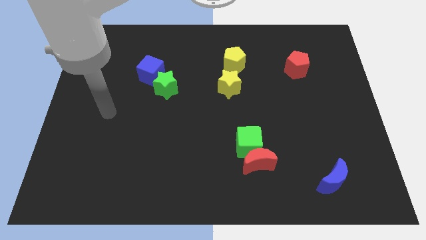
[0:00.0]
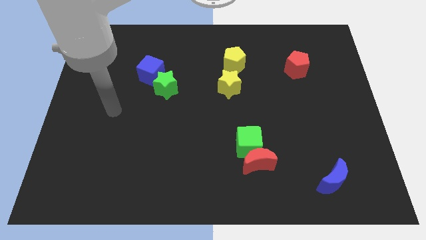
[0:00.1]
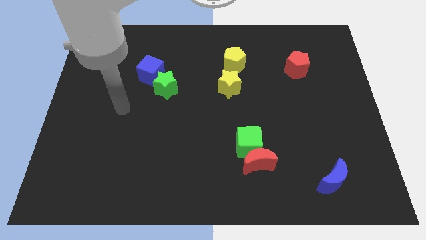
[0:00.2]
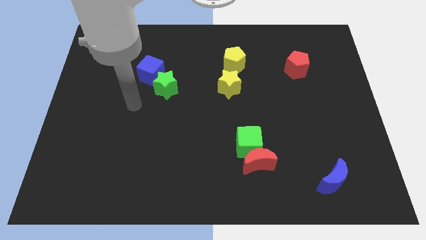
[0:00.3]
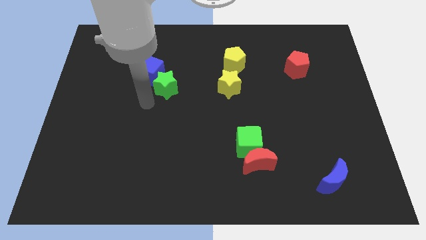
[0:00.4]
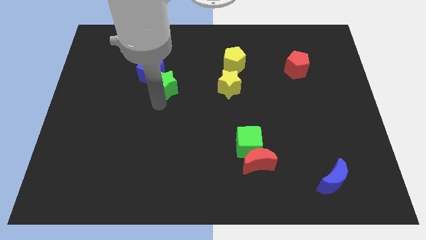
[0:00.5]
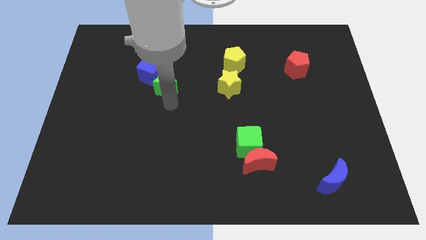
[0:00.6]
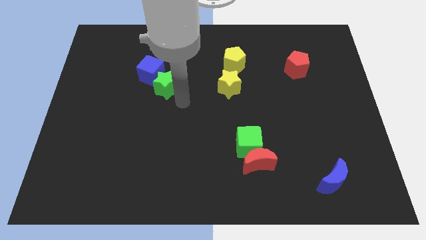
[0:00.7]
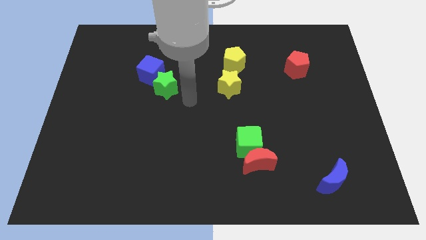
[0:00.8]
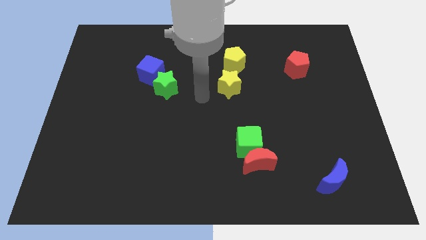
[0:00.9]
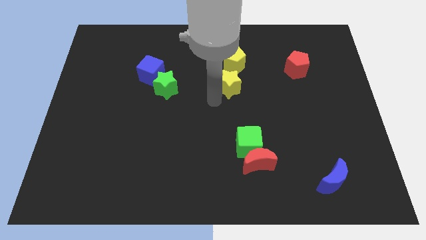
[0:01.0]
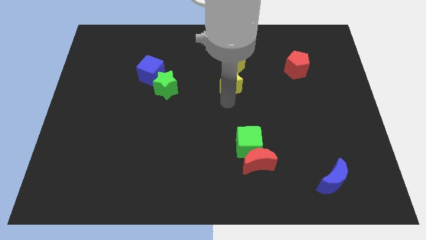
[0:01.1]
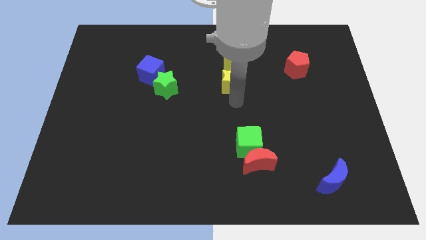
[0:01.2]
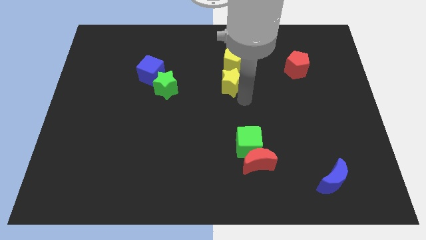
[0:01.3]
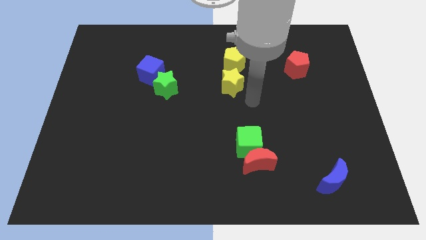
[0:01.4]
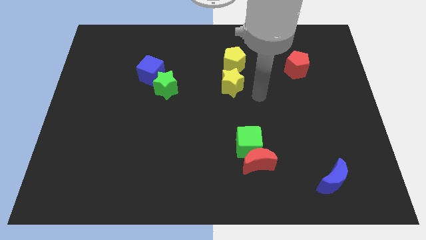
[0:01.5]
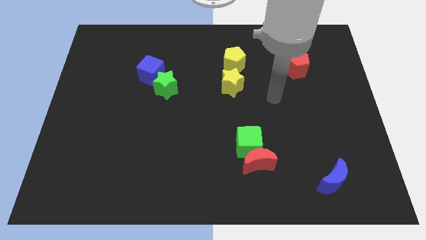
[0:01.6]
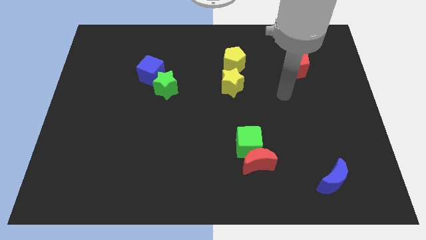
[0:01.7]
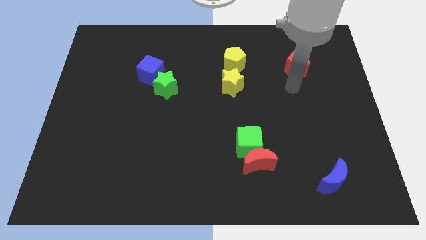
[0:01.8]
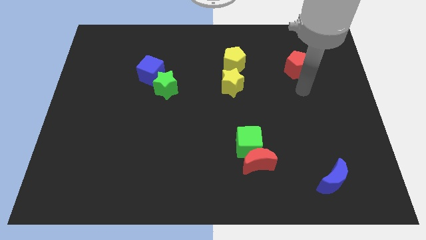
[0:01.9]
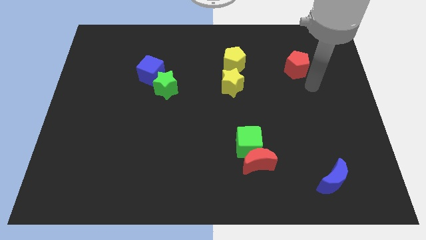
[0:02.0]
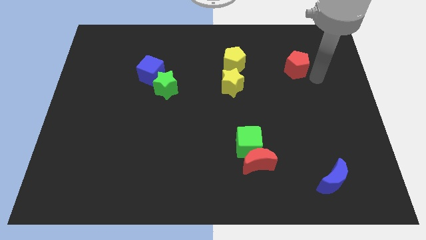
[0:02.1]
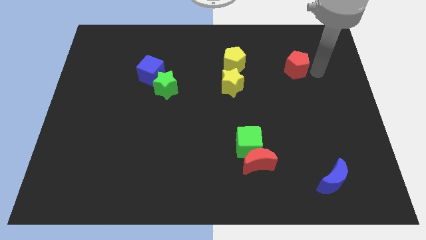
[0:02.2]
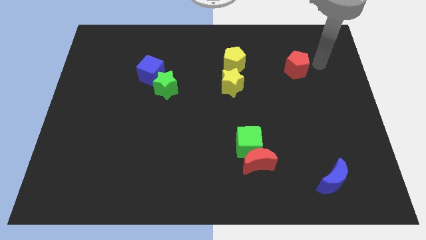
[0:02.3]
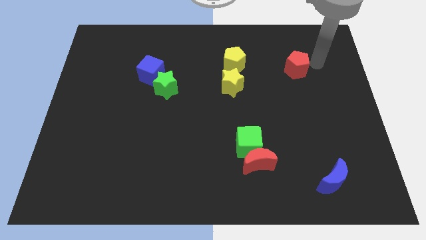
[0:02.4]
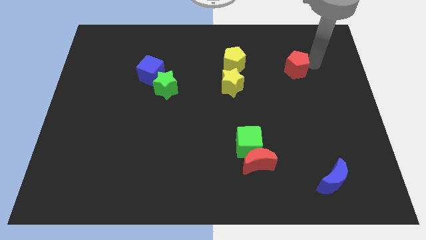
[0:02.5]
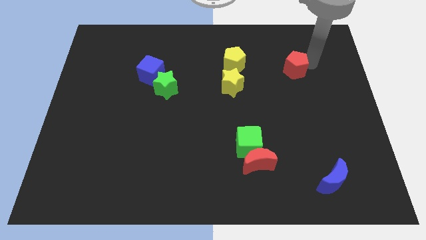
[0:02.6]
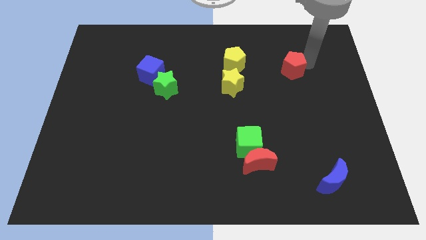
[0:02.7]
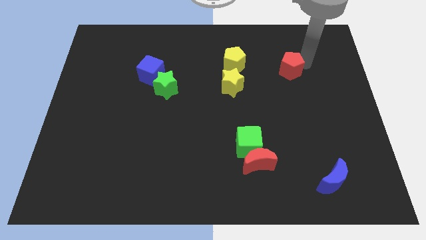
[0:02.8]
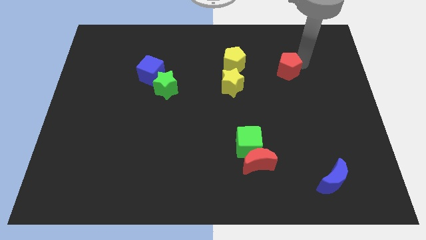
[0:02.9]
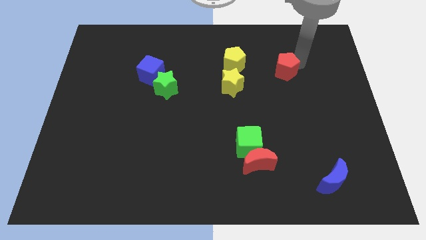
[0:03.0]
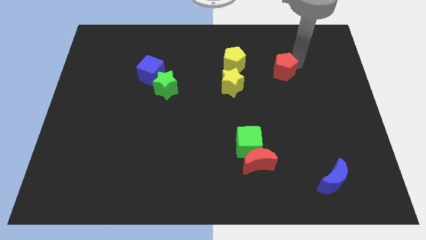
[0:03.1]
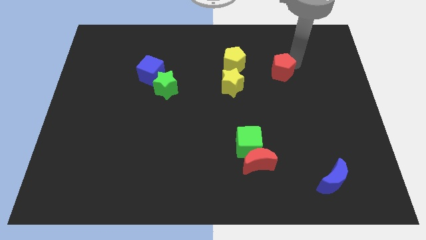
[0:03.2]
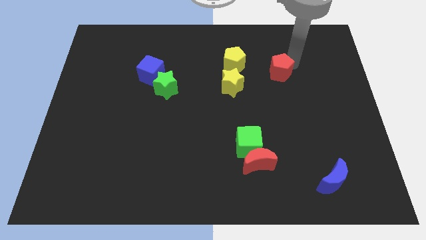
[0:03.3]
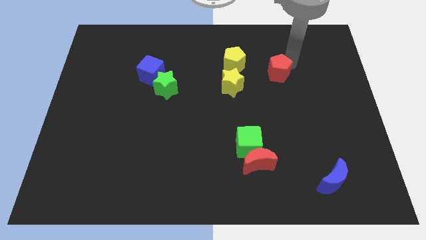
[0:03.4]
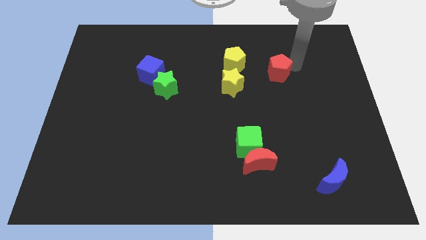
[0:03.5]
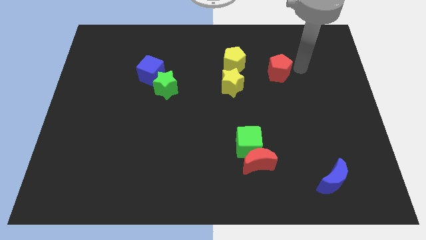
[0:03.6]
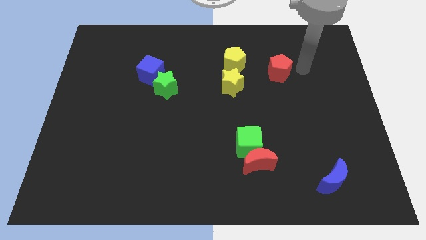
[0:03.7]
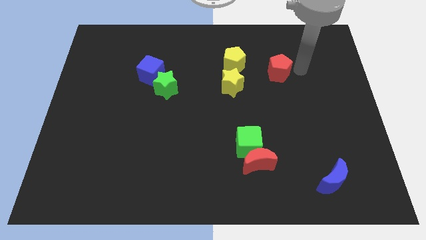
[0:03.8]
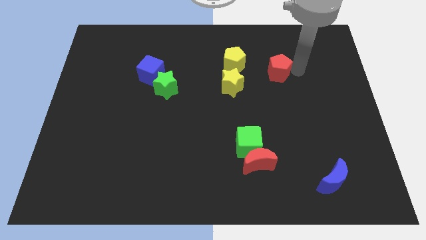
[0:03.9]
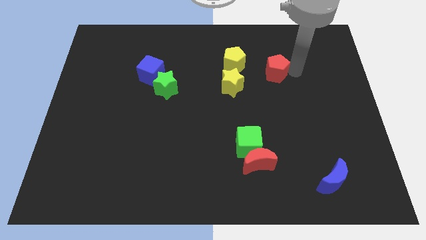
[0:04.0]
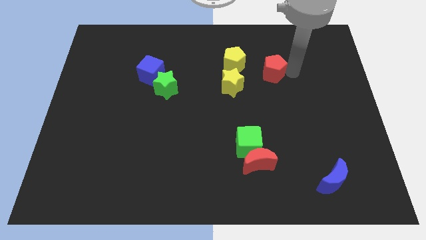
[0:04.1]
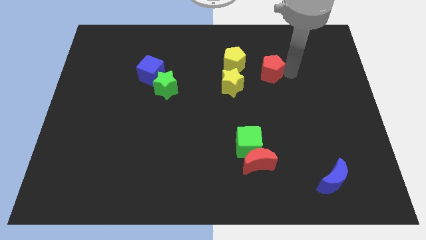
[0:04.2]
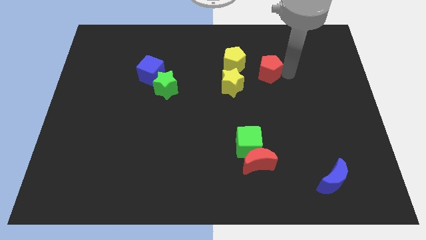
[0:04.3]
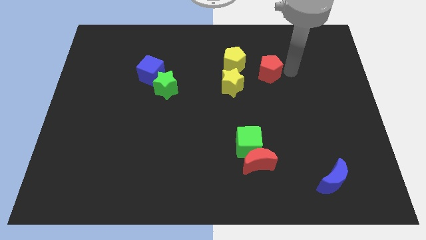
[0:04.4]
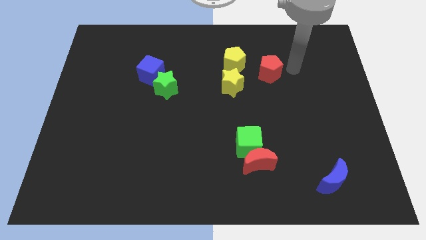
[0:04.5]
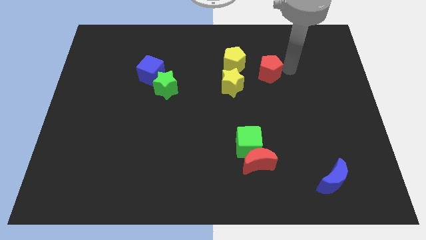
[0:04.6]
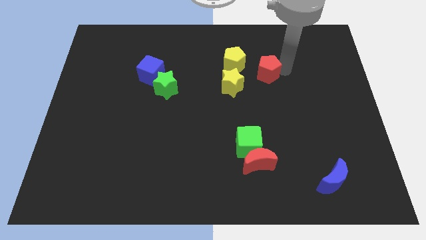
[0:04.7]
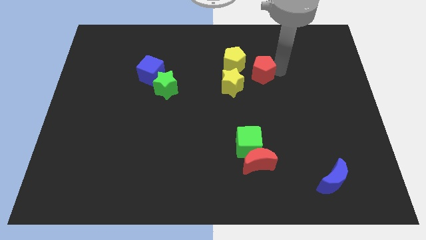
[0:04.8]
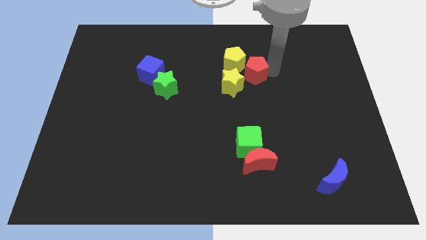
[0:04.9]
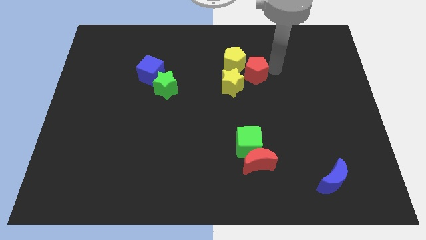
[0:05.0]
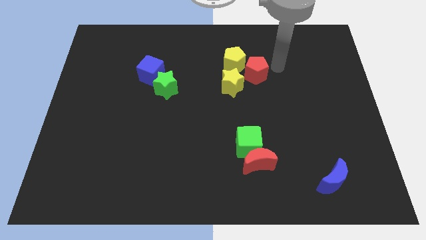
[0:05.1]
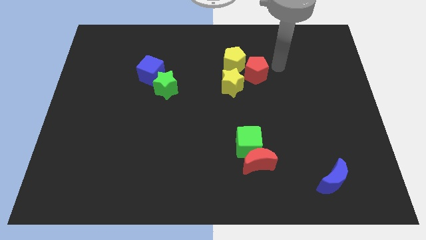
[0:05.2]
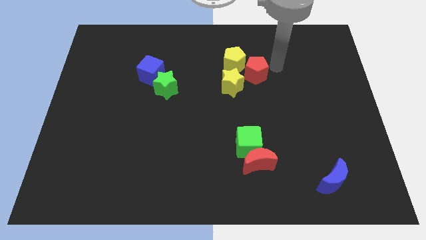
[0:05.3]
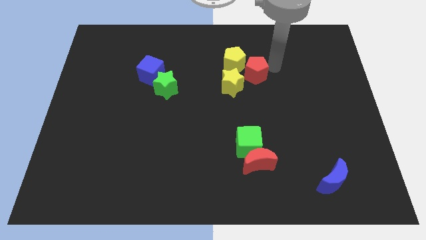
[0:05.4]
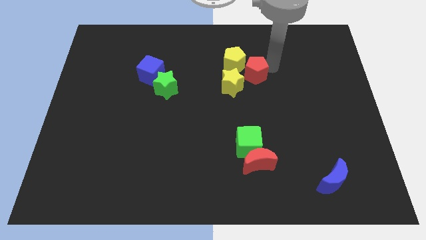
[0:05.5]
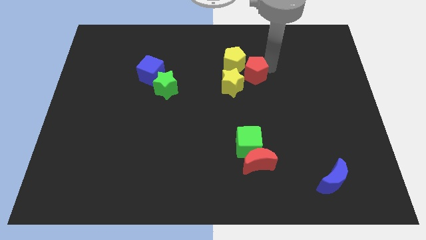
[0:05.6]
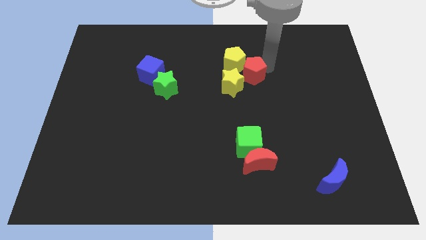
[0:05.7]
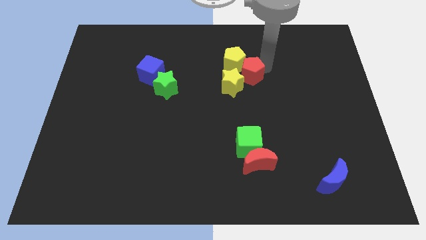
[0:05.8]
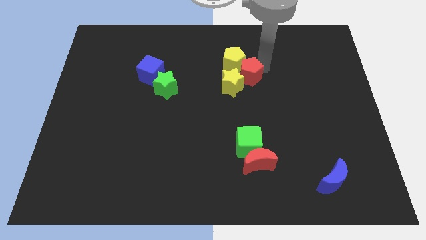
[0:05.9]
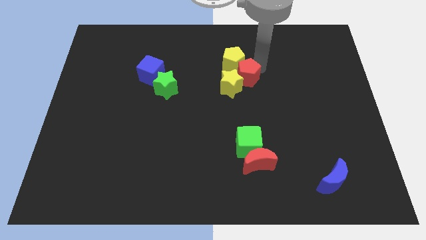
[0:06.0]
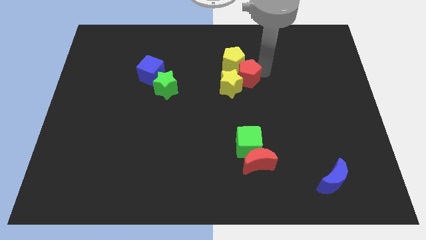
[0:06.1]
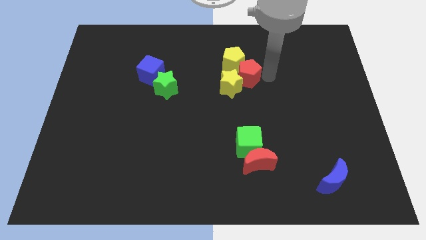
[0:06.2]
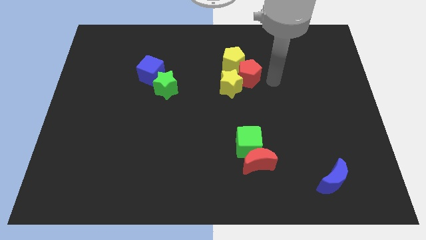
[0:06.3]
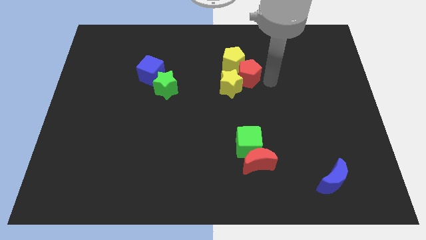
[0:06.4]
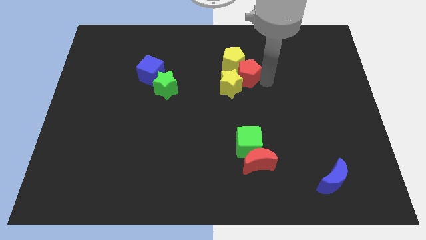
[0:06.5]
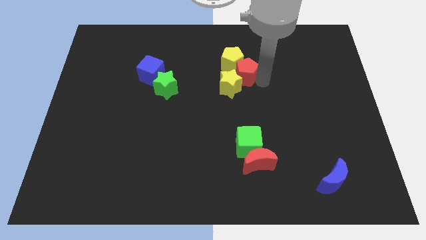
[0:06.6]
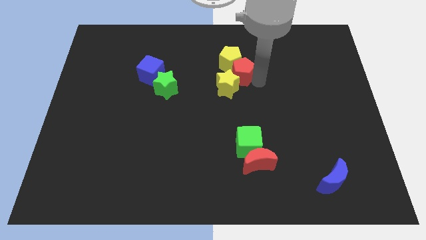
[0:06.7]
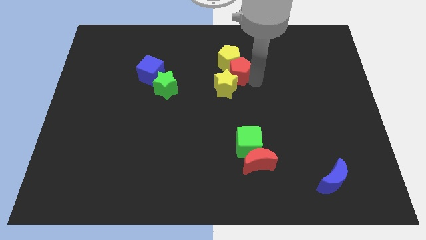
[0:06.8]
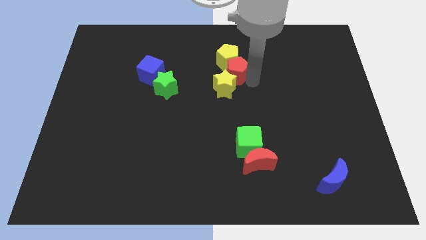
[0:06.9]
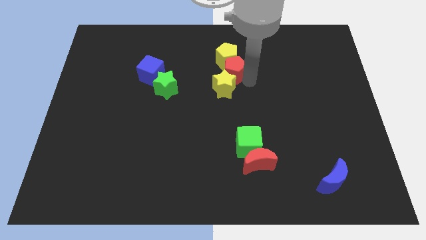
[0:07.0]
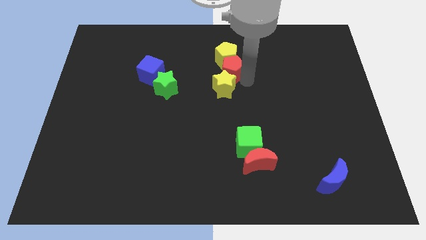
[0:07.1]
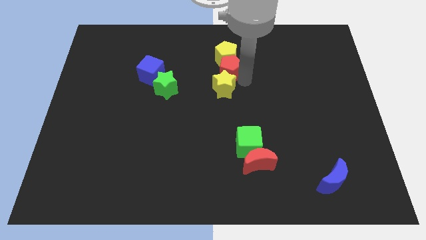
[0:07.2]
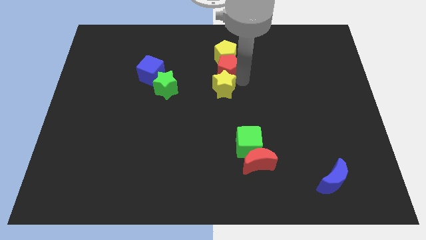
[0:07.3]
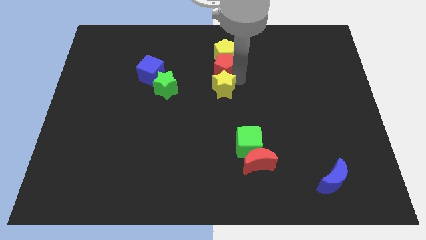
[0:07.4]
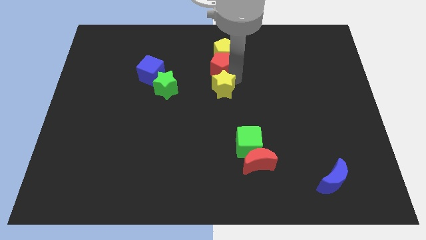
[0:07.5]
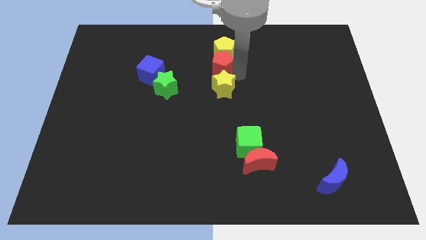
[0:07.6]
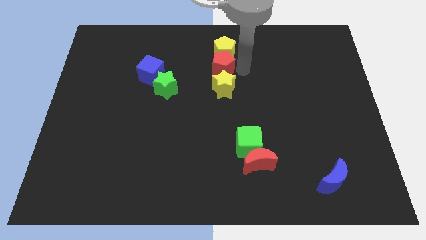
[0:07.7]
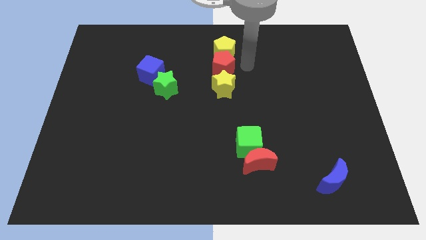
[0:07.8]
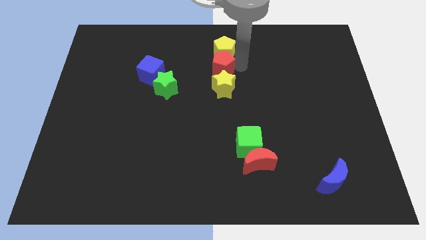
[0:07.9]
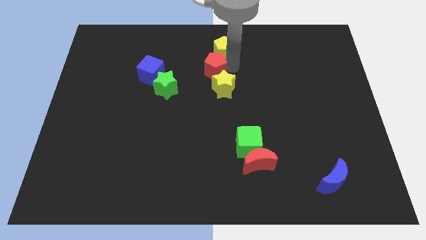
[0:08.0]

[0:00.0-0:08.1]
push the red pentagon to the left

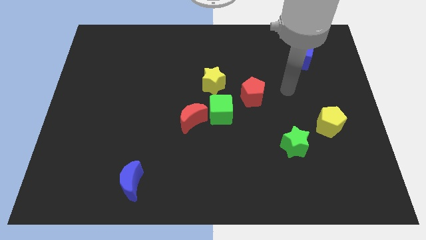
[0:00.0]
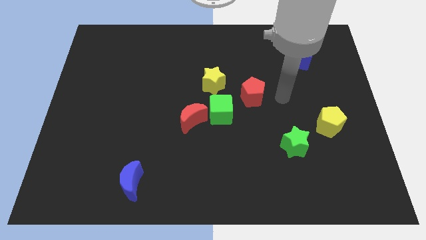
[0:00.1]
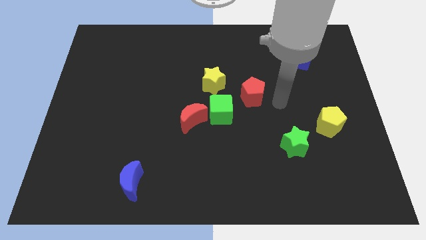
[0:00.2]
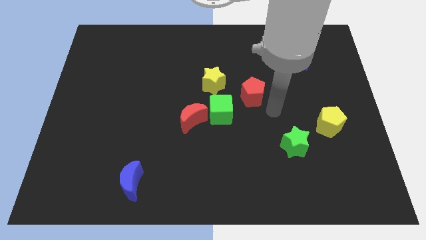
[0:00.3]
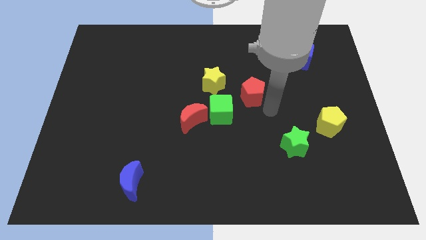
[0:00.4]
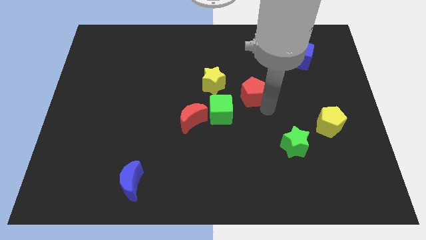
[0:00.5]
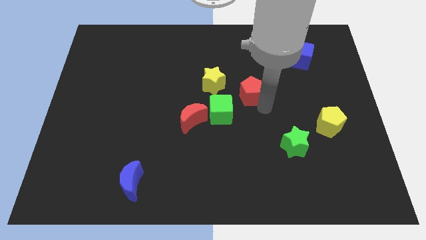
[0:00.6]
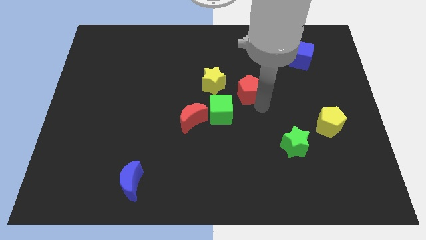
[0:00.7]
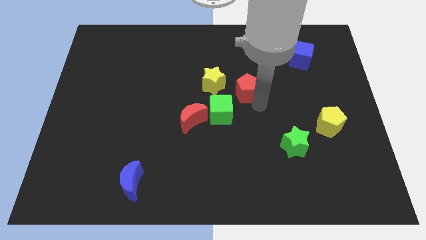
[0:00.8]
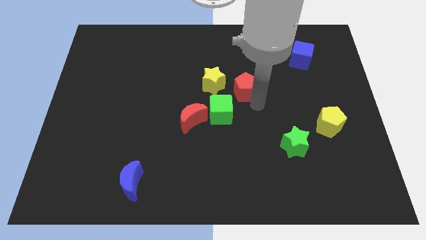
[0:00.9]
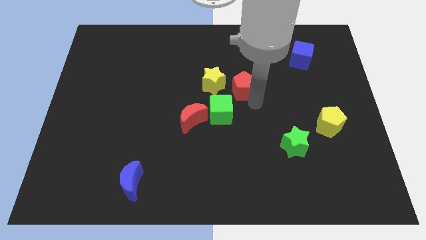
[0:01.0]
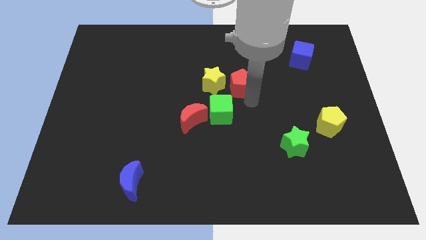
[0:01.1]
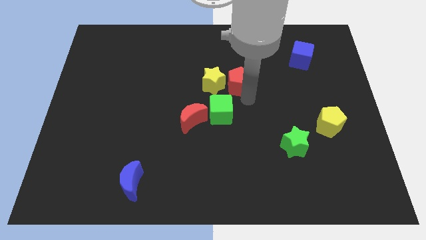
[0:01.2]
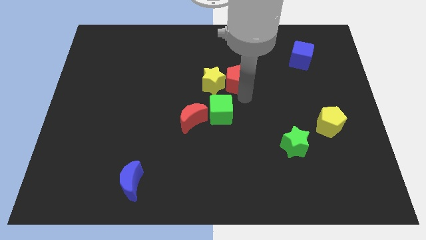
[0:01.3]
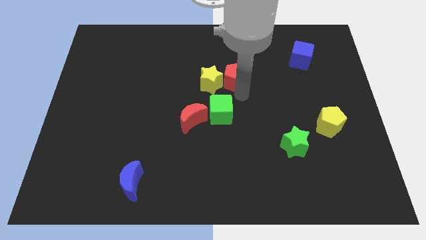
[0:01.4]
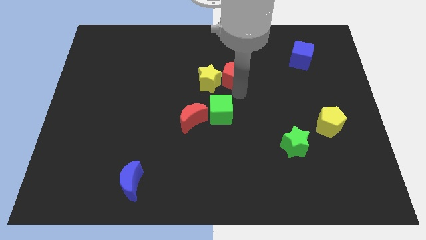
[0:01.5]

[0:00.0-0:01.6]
push the red pentagon upwards and left a little
